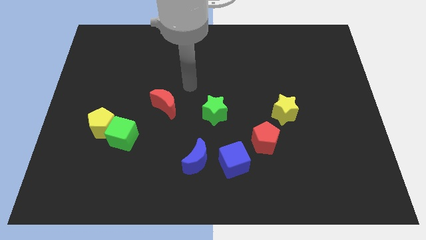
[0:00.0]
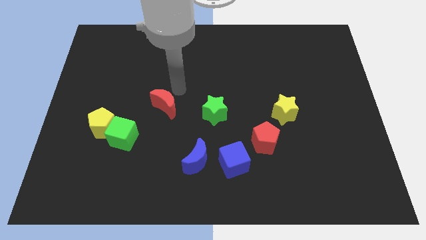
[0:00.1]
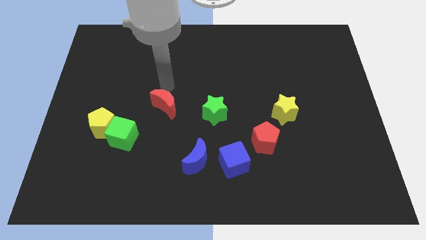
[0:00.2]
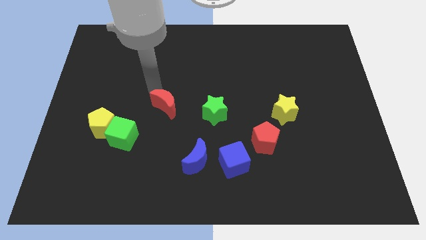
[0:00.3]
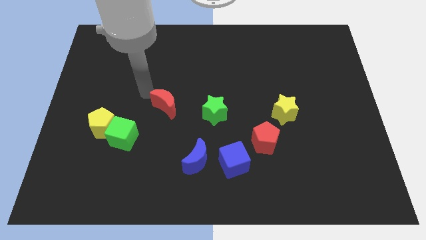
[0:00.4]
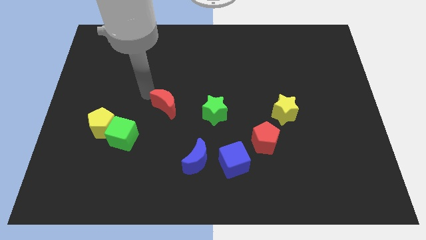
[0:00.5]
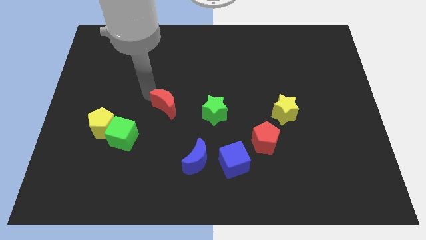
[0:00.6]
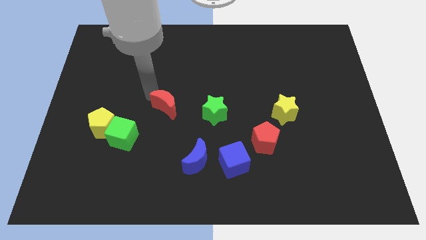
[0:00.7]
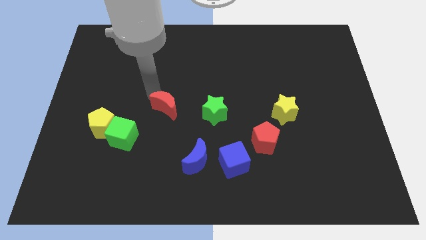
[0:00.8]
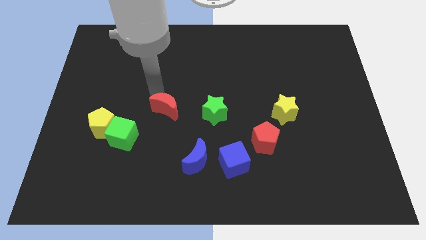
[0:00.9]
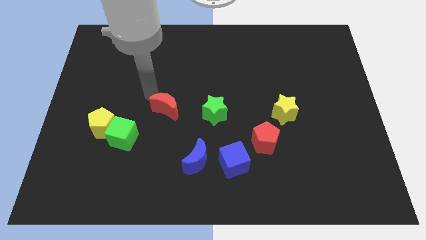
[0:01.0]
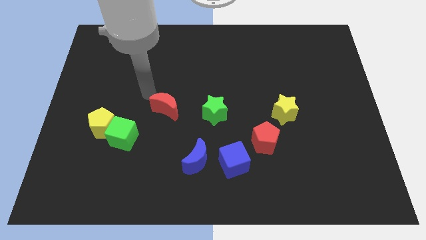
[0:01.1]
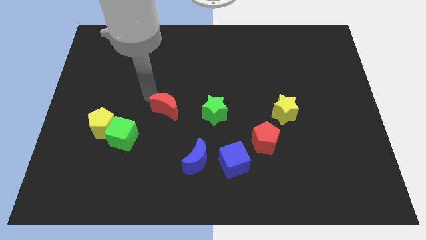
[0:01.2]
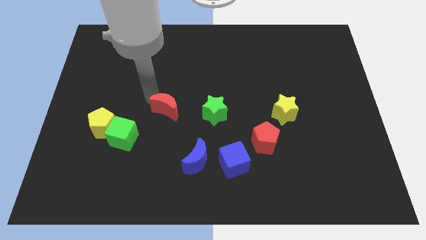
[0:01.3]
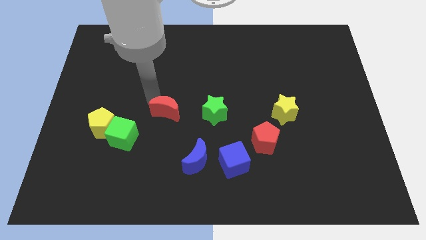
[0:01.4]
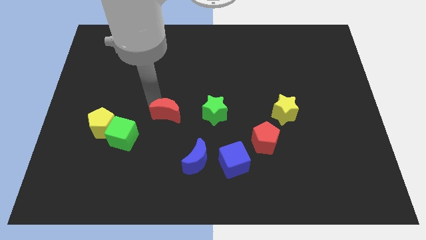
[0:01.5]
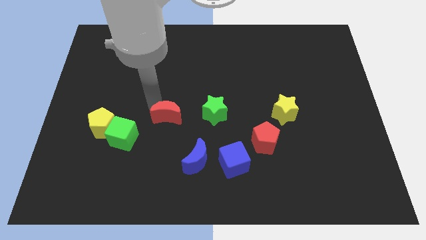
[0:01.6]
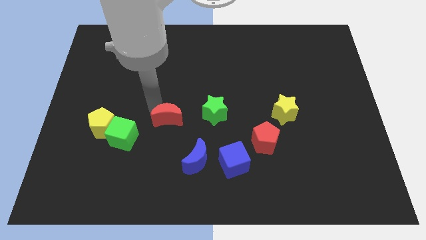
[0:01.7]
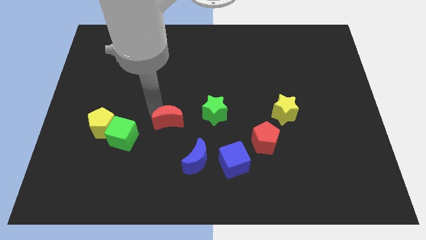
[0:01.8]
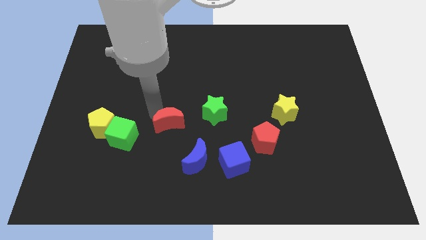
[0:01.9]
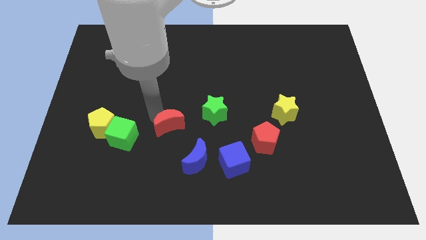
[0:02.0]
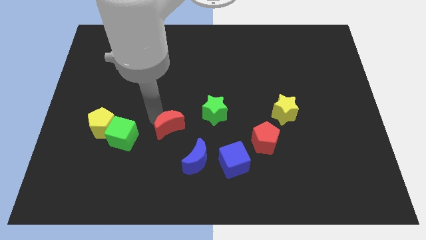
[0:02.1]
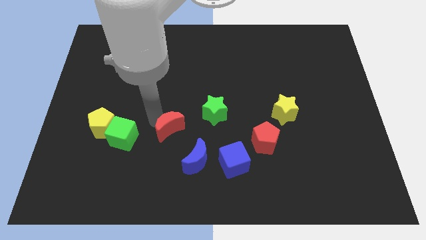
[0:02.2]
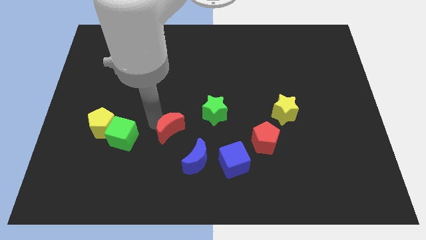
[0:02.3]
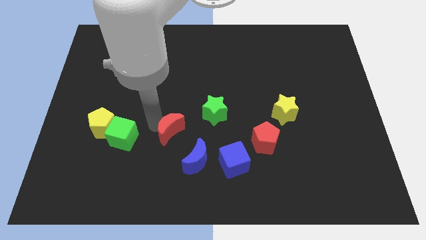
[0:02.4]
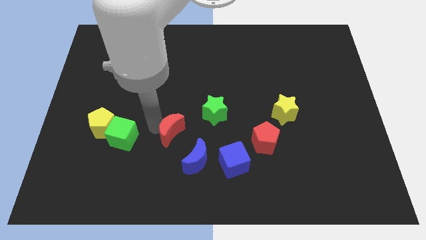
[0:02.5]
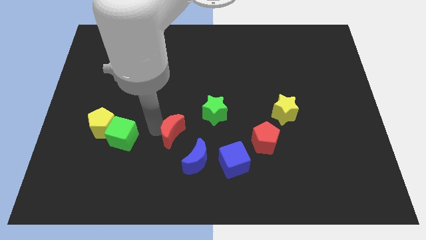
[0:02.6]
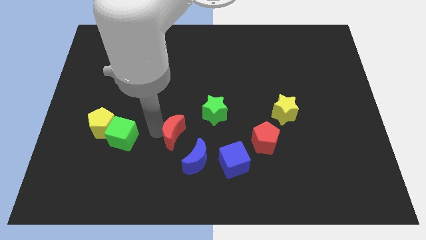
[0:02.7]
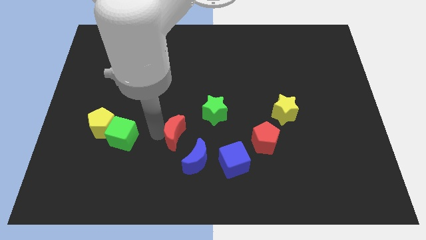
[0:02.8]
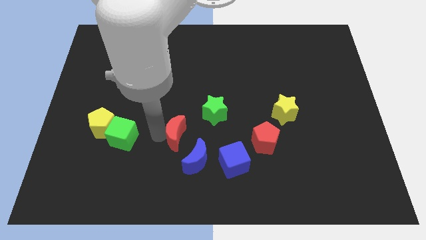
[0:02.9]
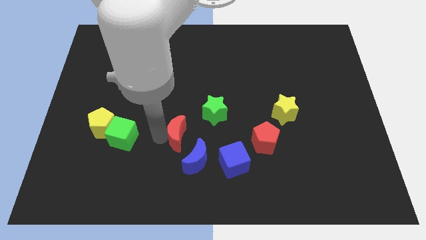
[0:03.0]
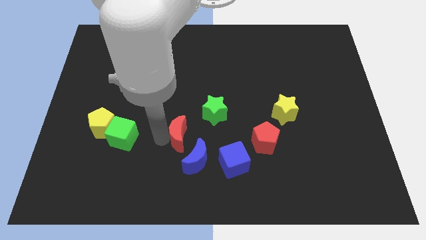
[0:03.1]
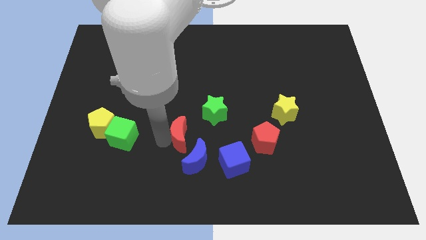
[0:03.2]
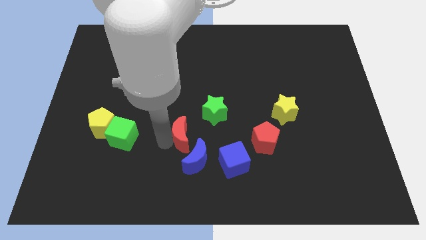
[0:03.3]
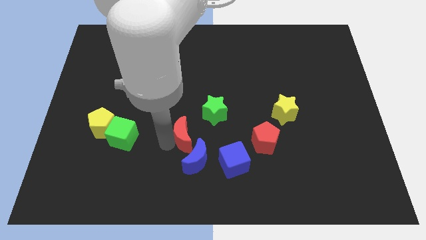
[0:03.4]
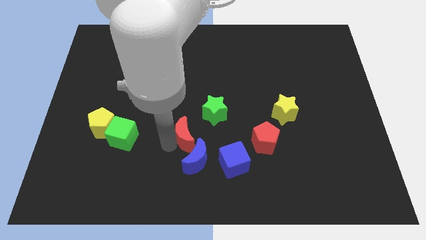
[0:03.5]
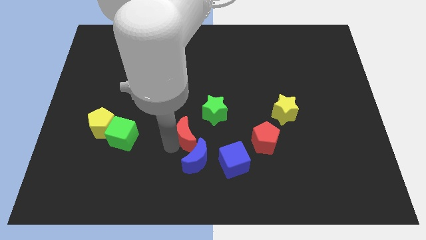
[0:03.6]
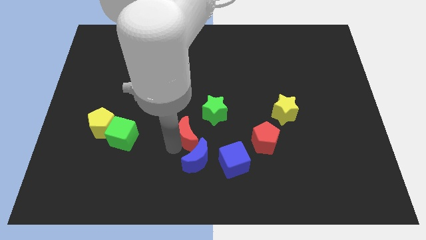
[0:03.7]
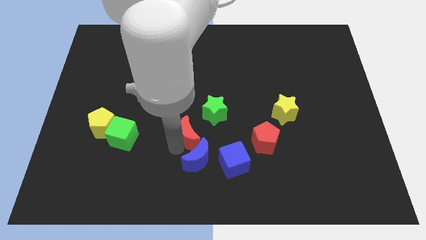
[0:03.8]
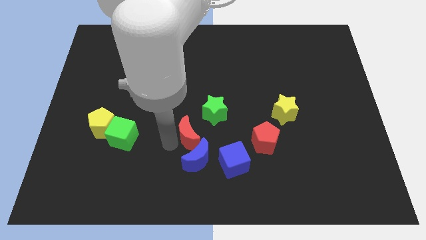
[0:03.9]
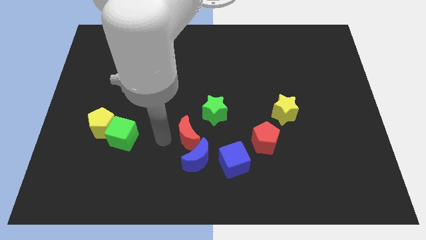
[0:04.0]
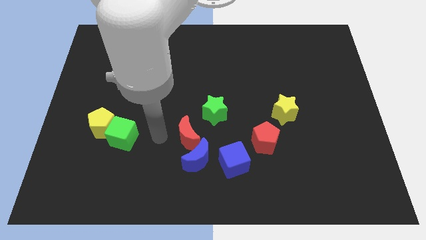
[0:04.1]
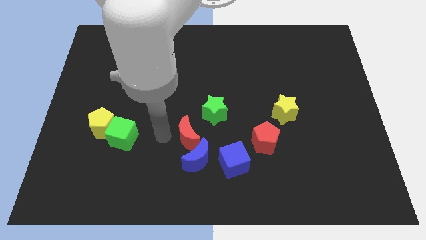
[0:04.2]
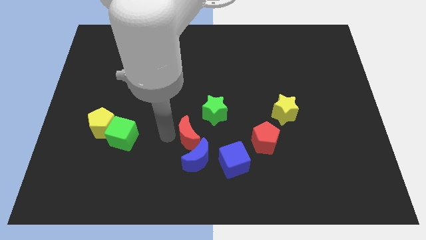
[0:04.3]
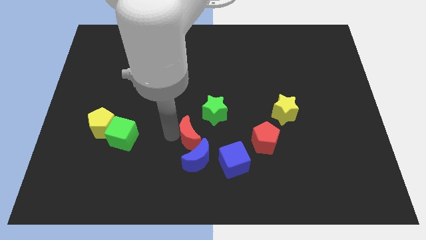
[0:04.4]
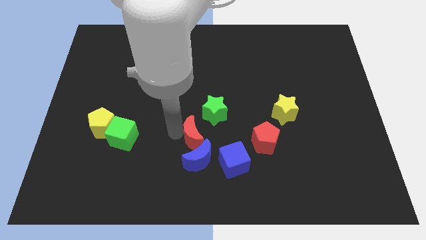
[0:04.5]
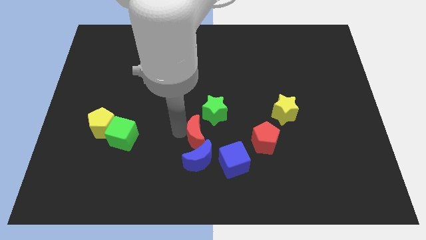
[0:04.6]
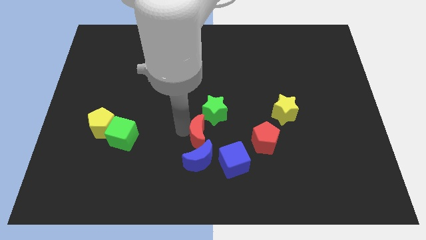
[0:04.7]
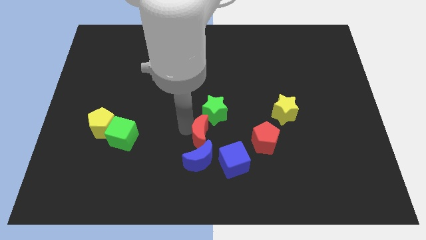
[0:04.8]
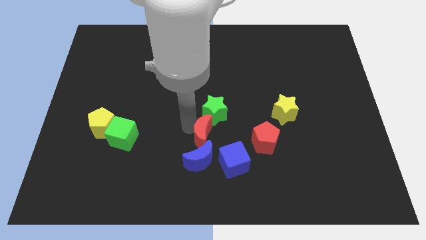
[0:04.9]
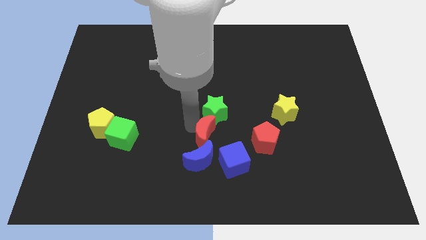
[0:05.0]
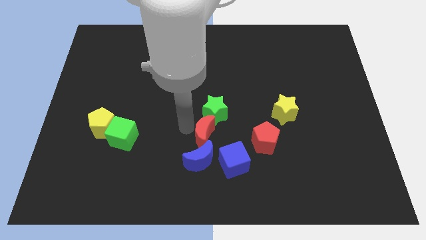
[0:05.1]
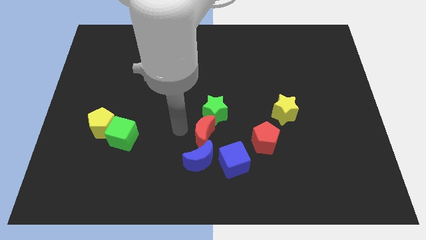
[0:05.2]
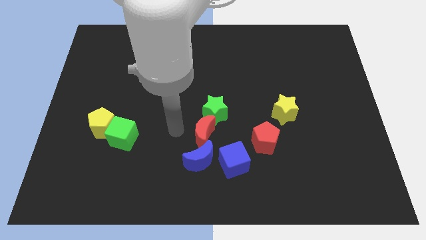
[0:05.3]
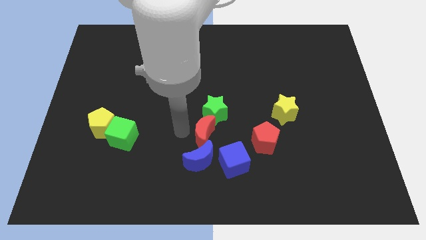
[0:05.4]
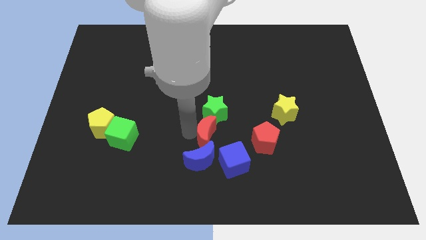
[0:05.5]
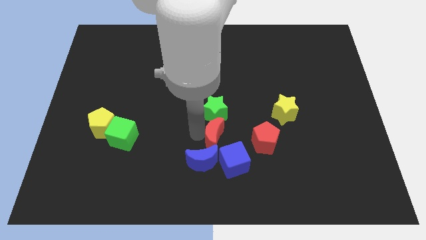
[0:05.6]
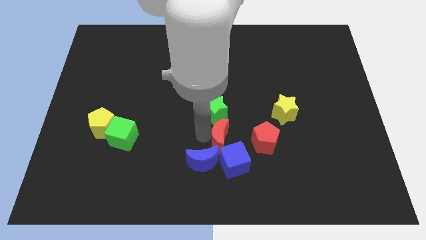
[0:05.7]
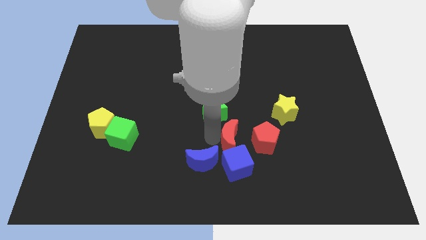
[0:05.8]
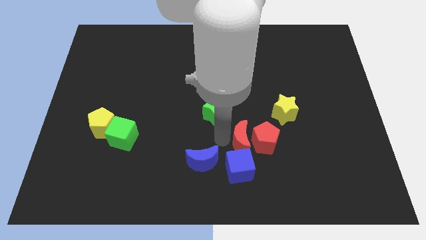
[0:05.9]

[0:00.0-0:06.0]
slide the red moon towards the red pentagon

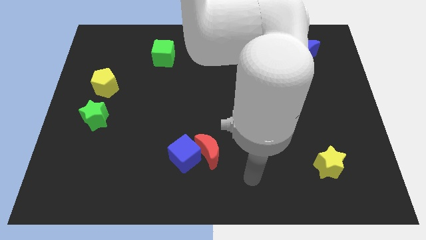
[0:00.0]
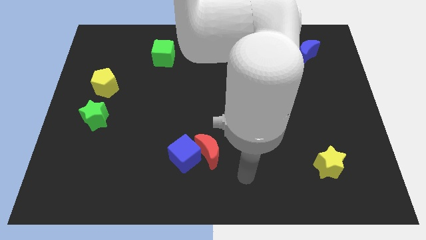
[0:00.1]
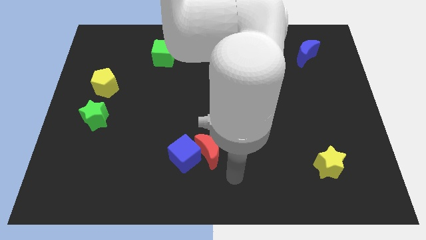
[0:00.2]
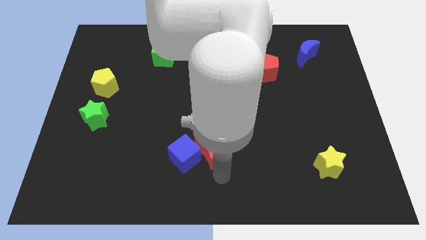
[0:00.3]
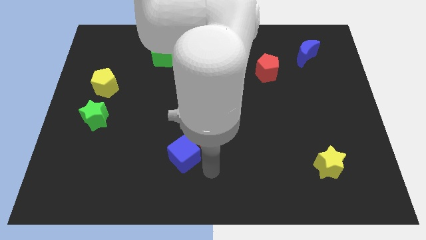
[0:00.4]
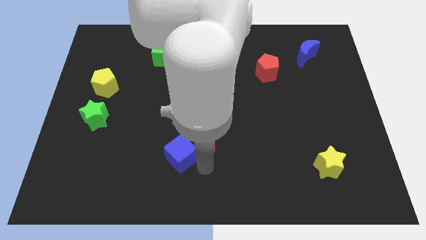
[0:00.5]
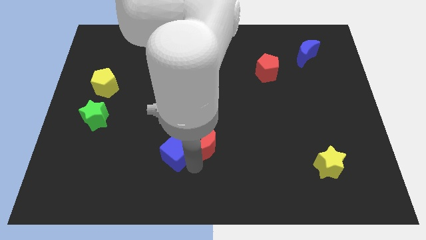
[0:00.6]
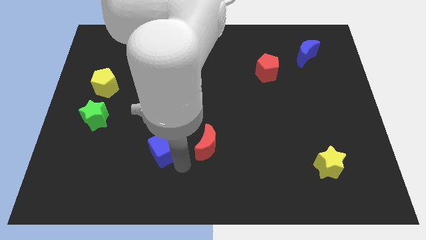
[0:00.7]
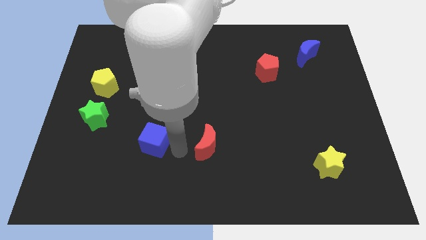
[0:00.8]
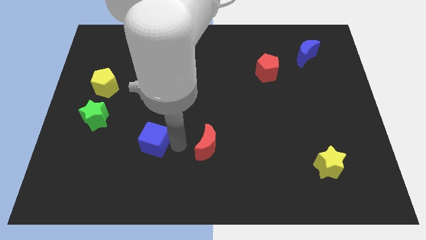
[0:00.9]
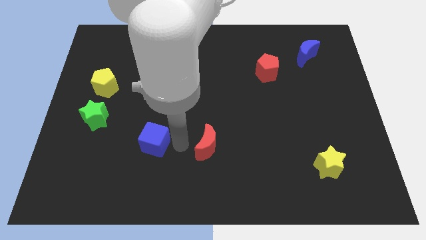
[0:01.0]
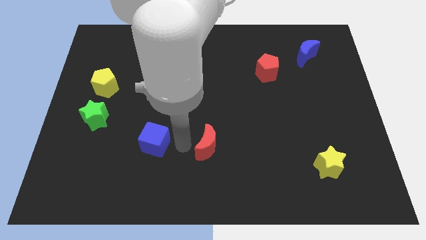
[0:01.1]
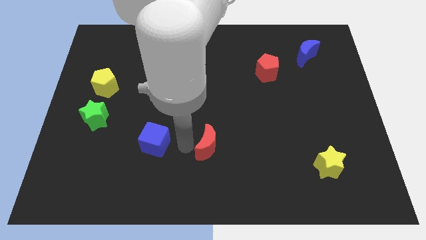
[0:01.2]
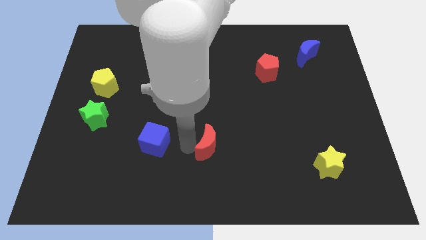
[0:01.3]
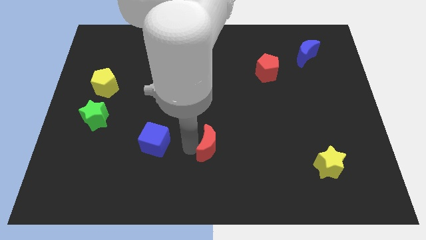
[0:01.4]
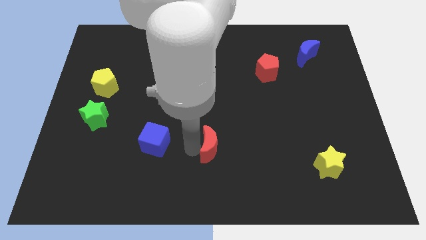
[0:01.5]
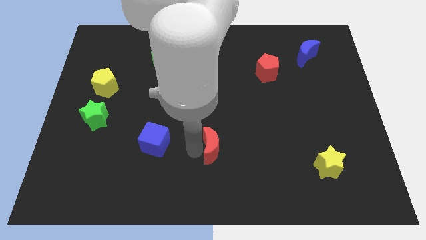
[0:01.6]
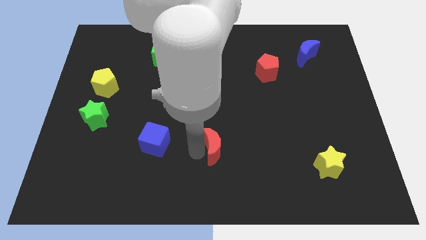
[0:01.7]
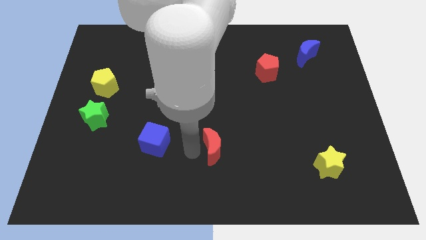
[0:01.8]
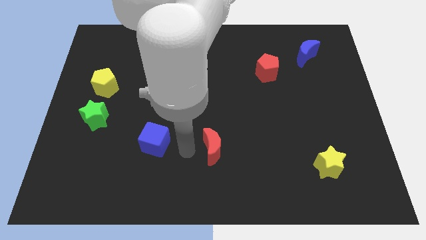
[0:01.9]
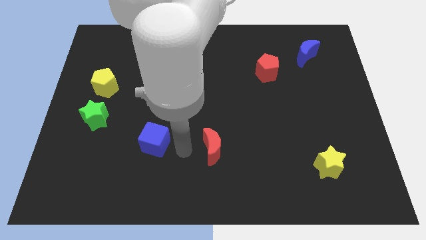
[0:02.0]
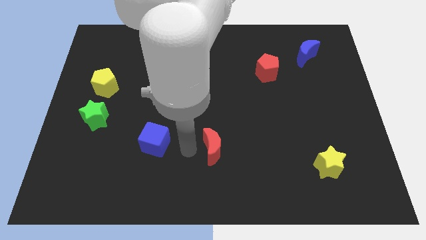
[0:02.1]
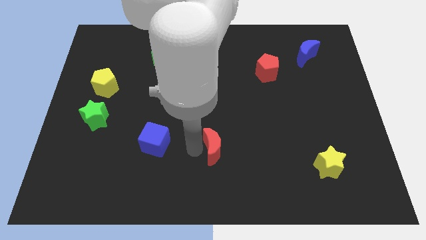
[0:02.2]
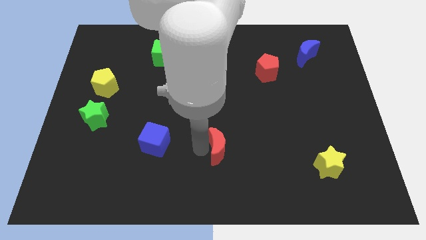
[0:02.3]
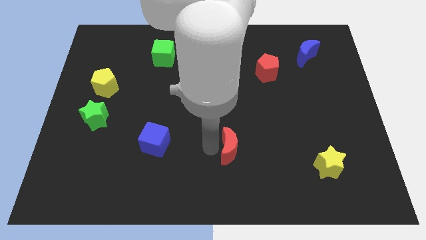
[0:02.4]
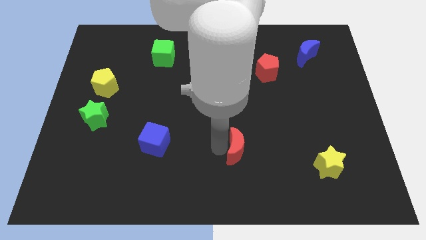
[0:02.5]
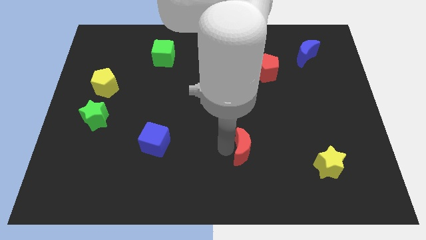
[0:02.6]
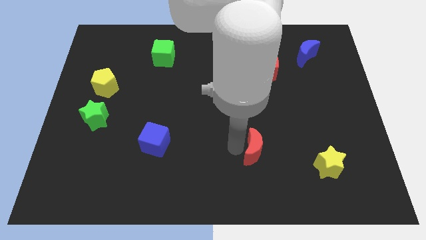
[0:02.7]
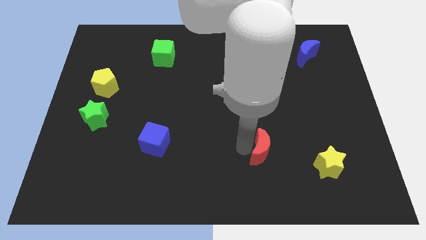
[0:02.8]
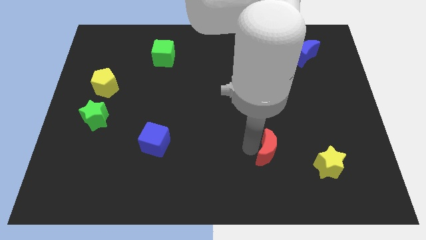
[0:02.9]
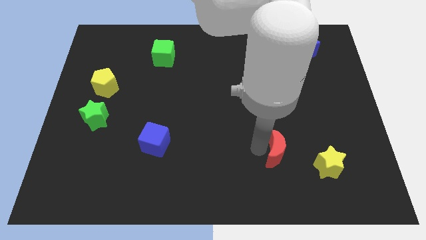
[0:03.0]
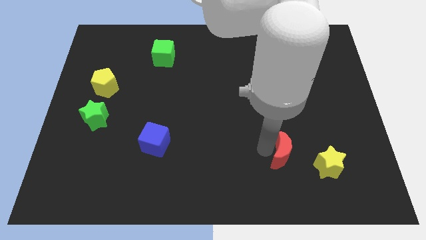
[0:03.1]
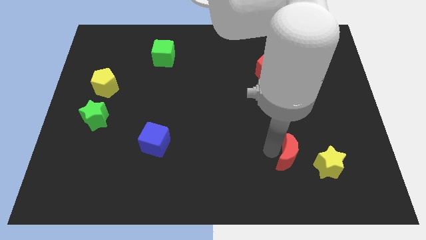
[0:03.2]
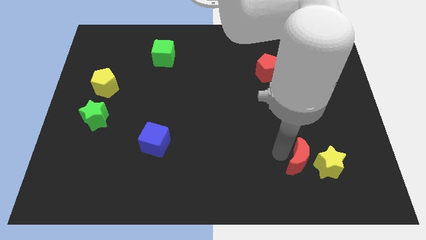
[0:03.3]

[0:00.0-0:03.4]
push the red moon to the yellow star
